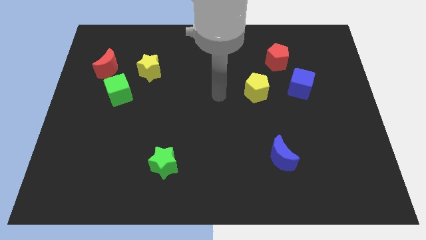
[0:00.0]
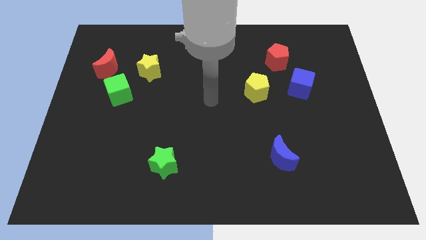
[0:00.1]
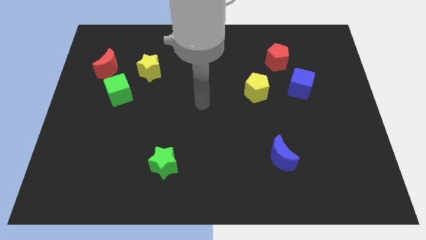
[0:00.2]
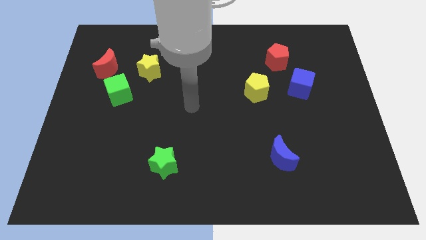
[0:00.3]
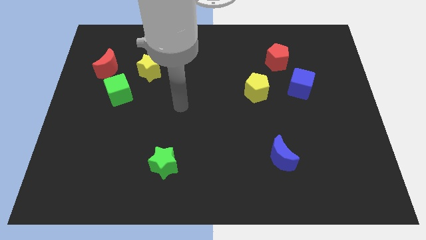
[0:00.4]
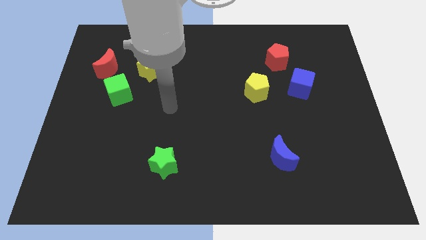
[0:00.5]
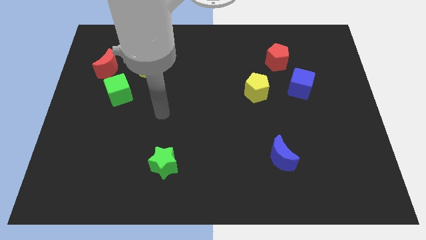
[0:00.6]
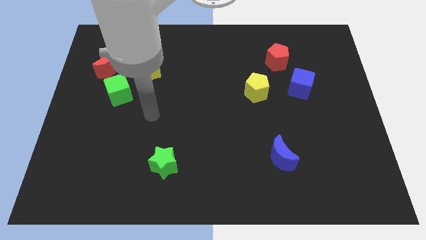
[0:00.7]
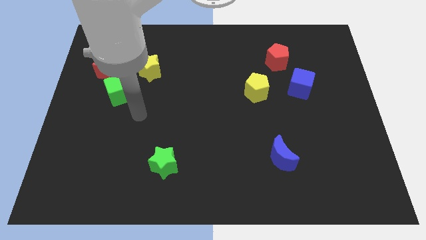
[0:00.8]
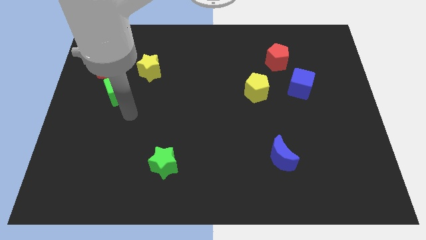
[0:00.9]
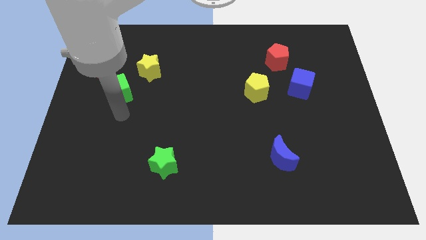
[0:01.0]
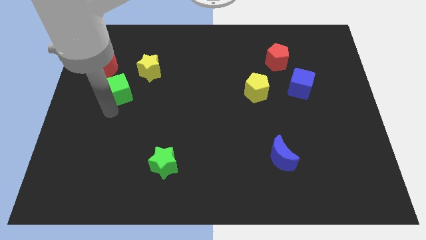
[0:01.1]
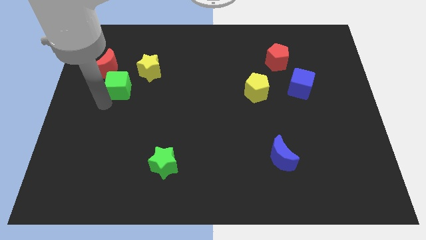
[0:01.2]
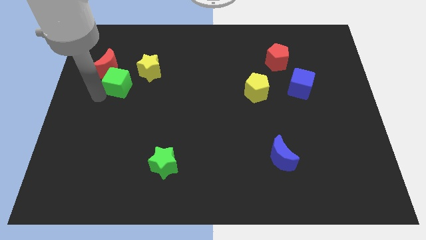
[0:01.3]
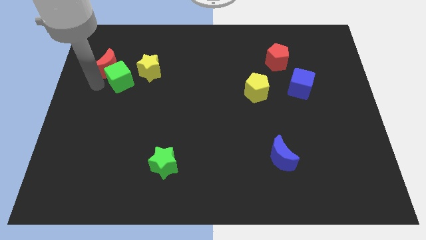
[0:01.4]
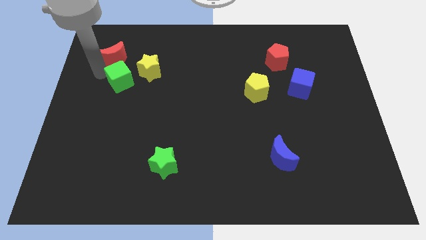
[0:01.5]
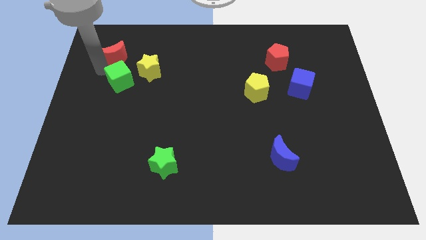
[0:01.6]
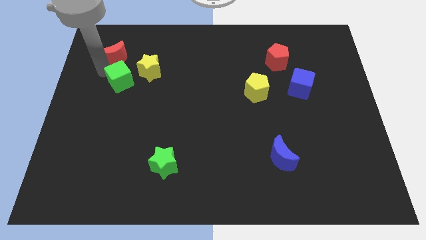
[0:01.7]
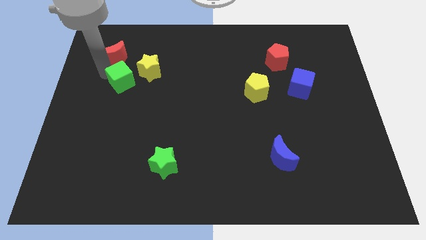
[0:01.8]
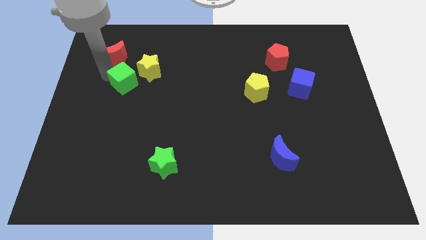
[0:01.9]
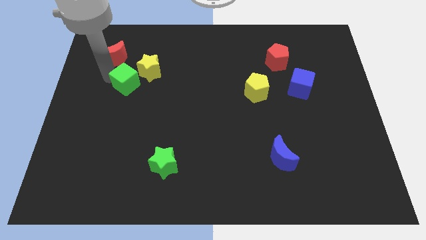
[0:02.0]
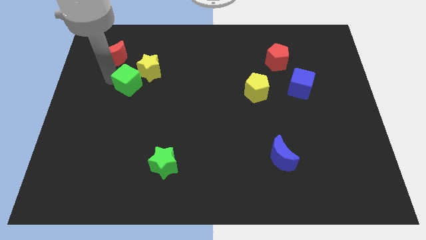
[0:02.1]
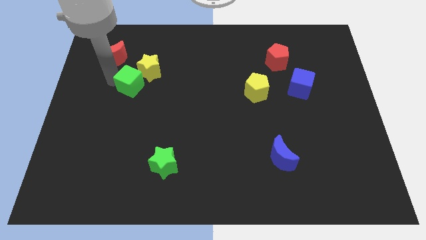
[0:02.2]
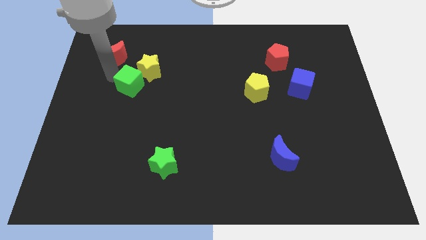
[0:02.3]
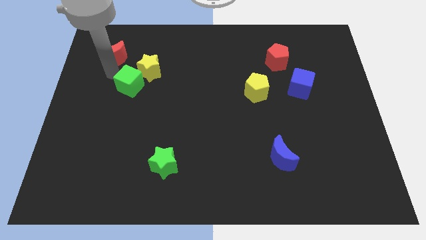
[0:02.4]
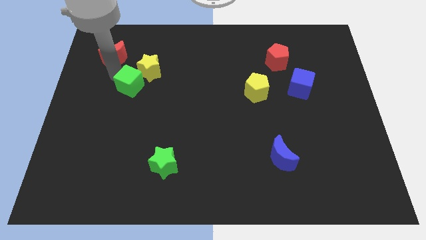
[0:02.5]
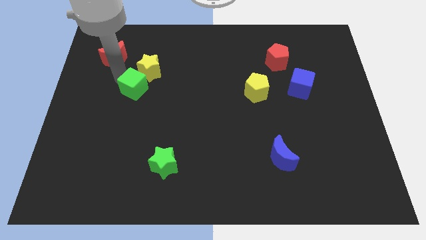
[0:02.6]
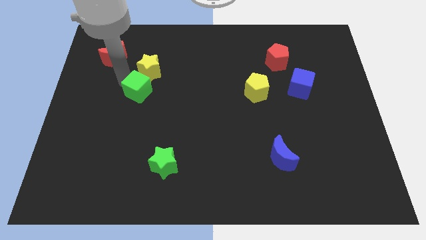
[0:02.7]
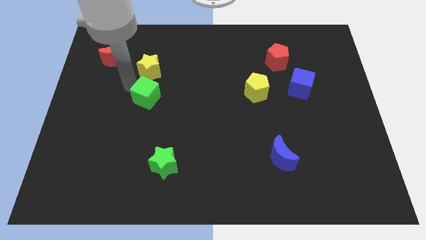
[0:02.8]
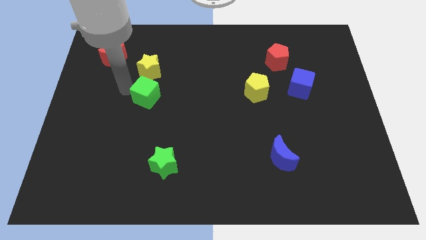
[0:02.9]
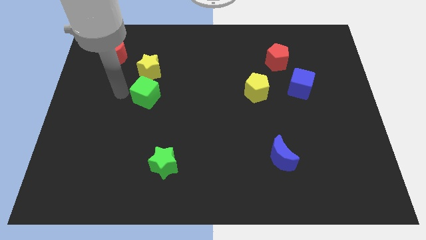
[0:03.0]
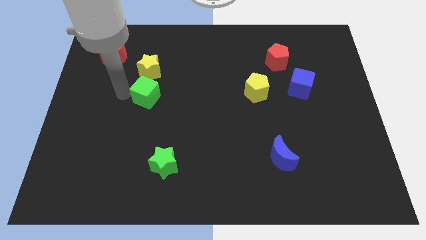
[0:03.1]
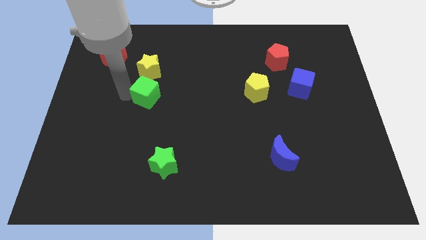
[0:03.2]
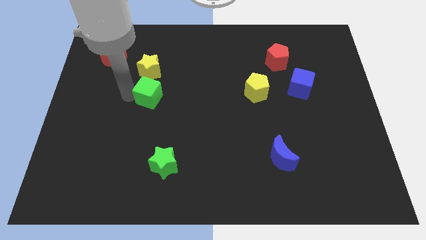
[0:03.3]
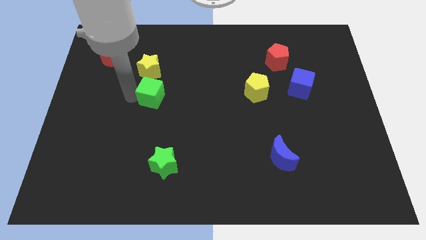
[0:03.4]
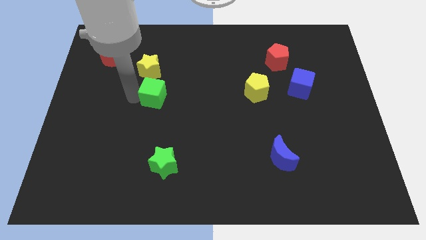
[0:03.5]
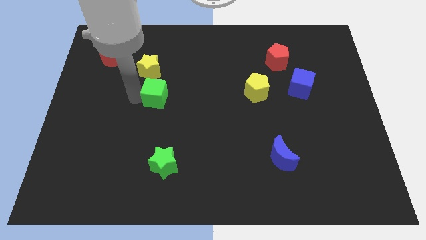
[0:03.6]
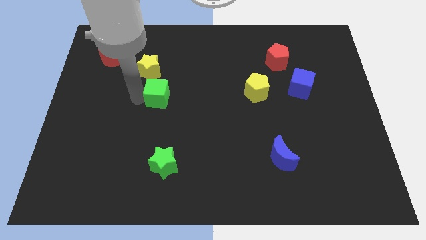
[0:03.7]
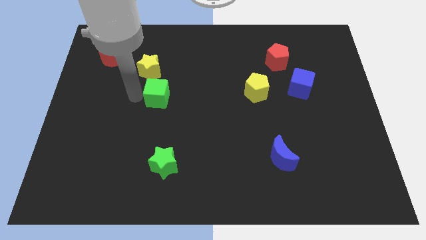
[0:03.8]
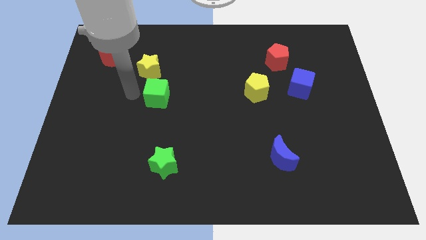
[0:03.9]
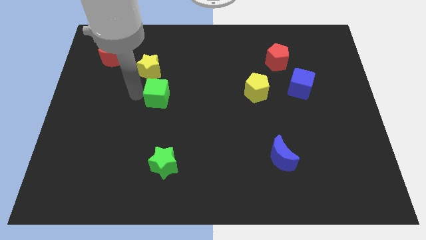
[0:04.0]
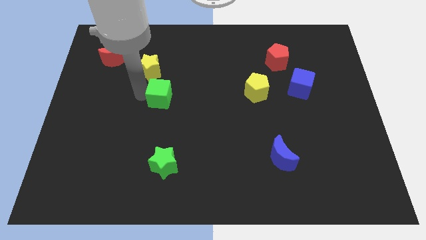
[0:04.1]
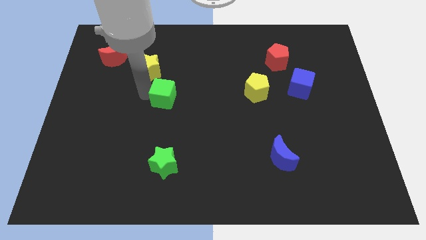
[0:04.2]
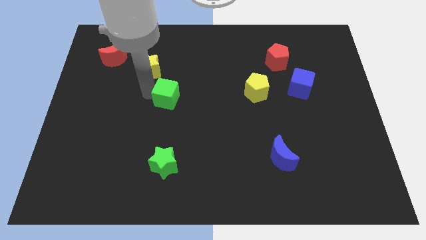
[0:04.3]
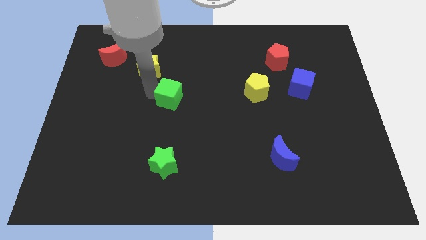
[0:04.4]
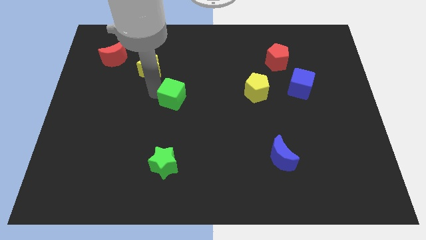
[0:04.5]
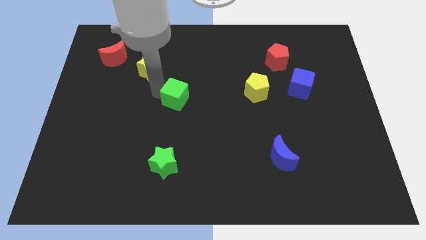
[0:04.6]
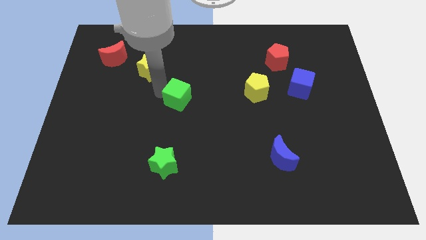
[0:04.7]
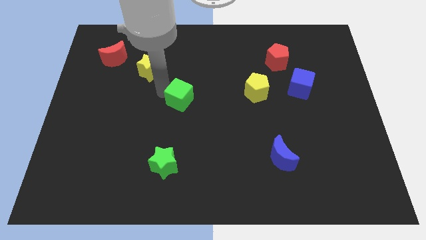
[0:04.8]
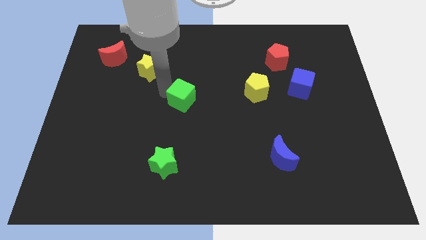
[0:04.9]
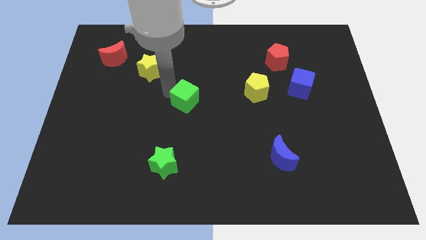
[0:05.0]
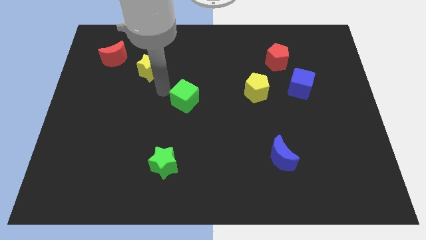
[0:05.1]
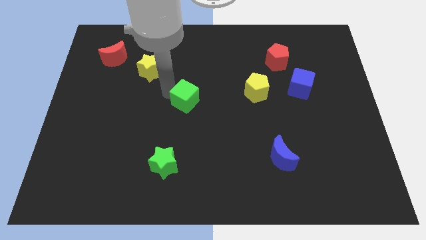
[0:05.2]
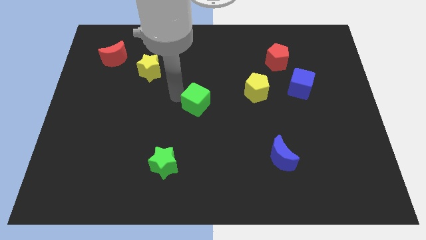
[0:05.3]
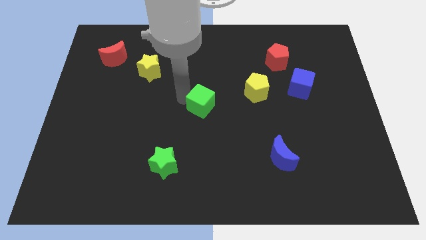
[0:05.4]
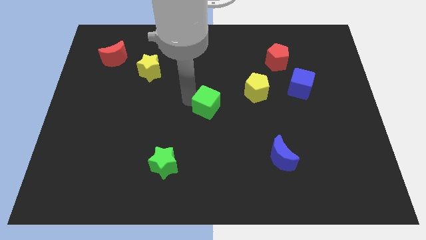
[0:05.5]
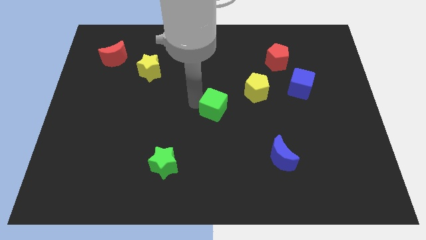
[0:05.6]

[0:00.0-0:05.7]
push the green cube diagonally down and to the left of the yellow pentagon

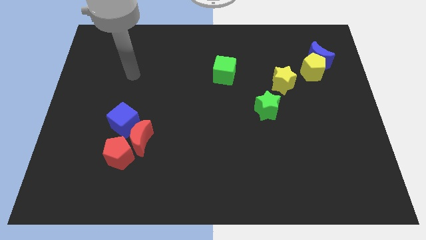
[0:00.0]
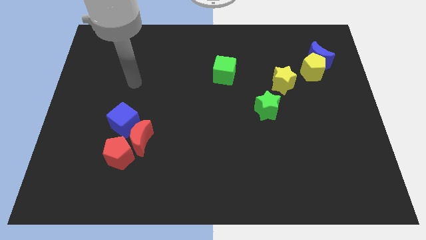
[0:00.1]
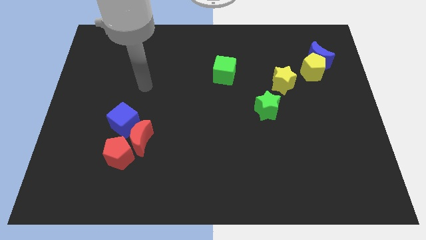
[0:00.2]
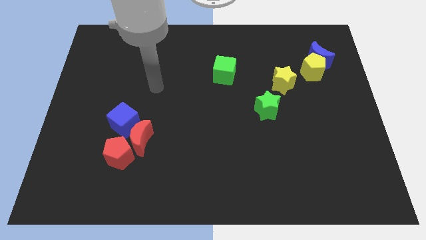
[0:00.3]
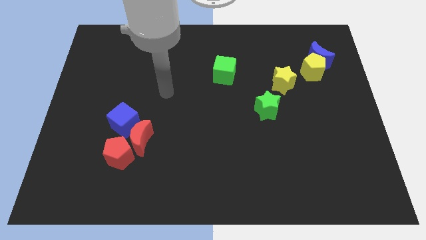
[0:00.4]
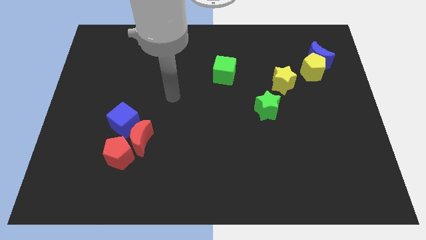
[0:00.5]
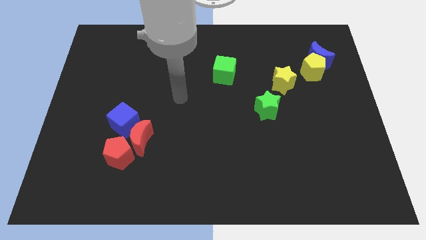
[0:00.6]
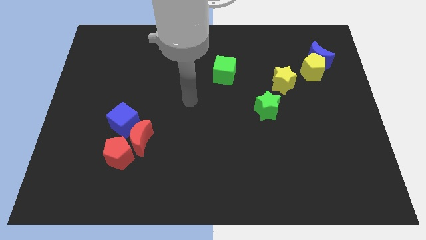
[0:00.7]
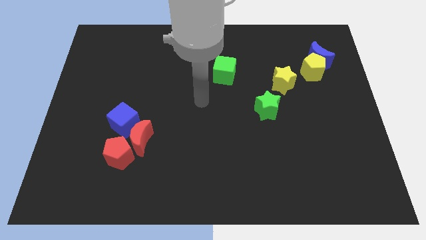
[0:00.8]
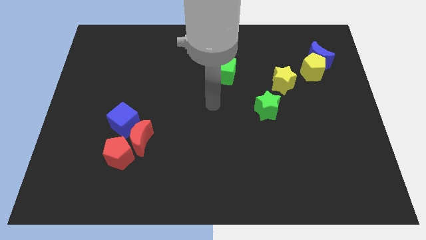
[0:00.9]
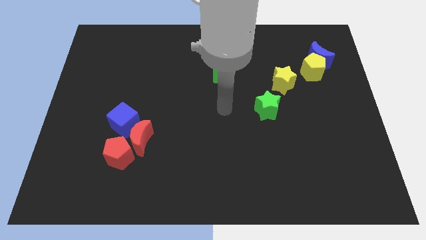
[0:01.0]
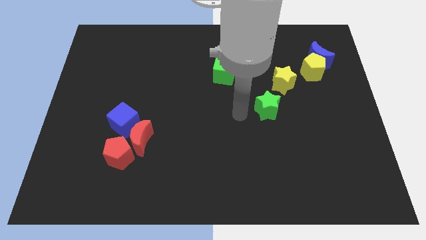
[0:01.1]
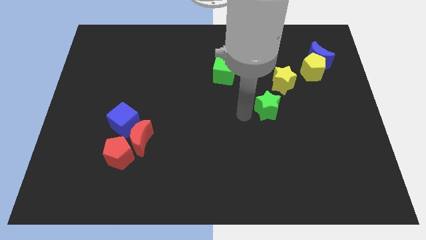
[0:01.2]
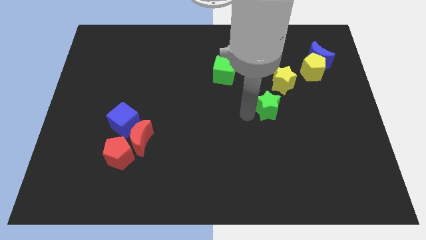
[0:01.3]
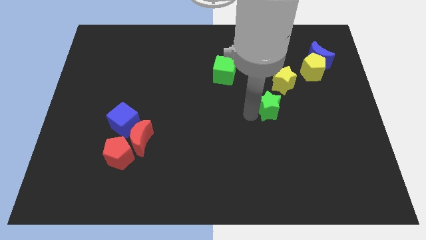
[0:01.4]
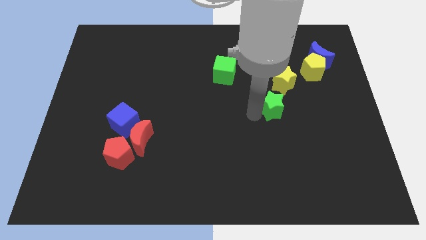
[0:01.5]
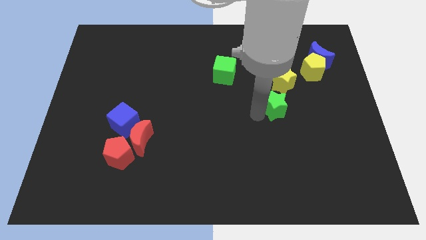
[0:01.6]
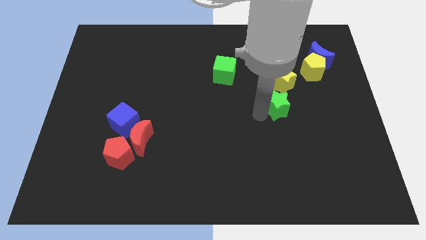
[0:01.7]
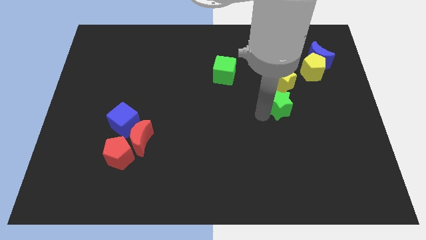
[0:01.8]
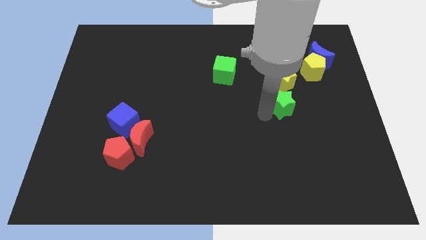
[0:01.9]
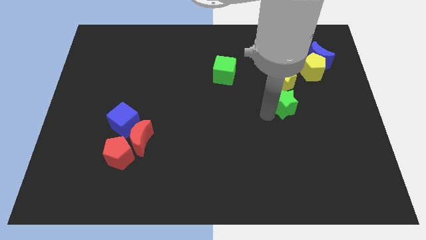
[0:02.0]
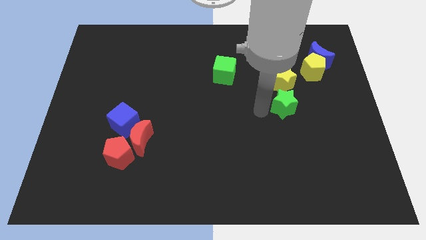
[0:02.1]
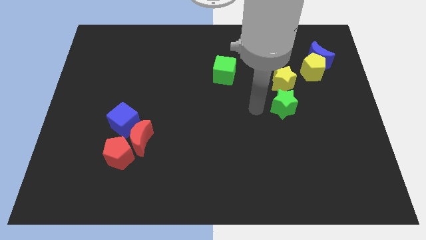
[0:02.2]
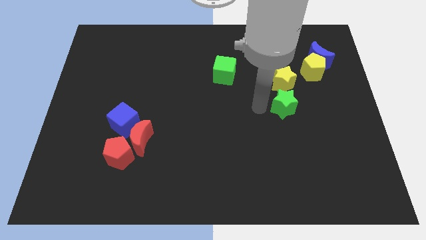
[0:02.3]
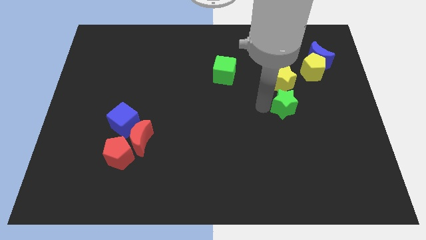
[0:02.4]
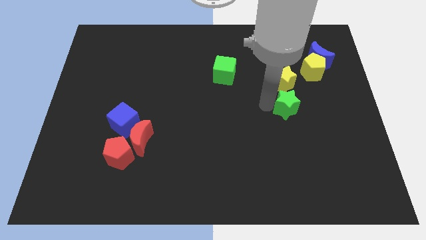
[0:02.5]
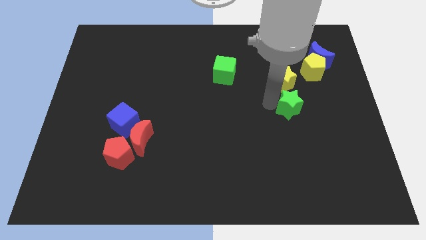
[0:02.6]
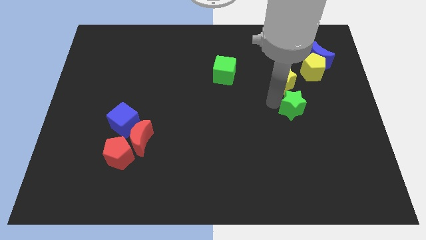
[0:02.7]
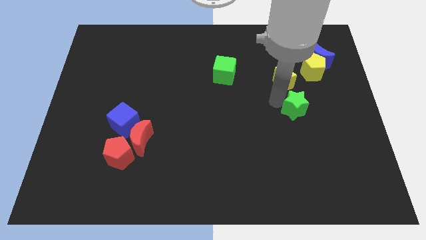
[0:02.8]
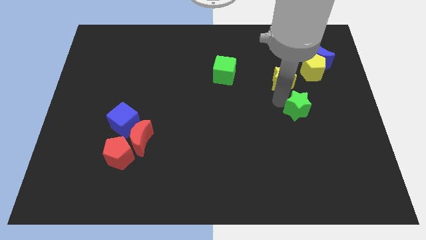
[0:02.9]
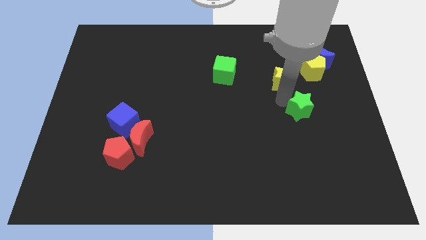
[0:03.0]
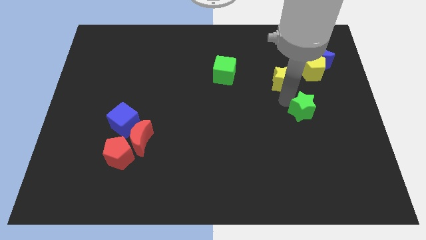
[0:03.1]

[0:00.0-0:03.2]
slide the green star to the bottom of the yellow pentagon
